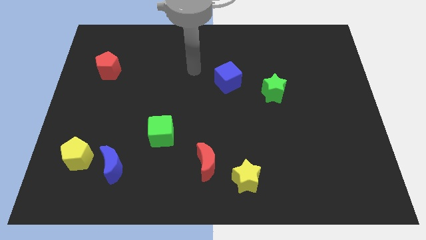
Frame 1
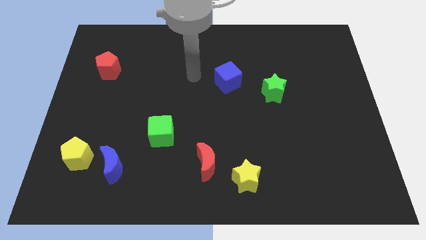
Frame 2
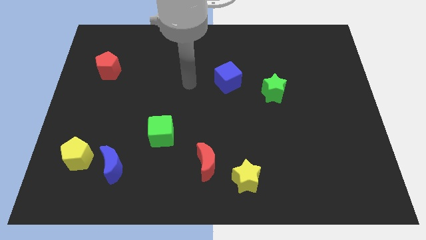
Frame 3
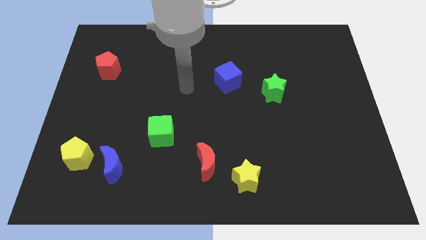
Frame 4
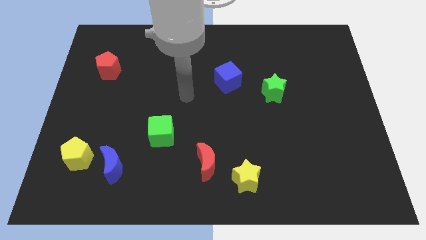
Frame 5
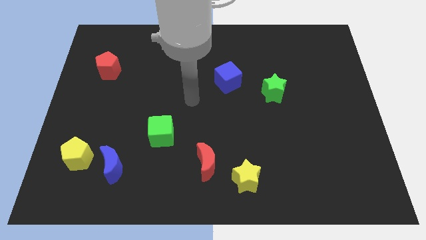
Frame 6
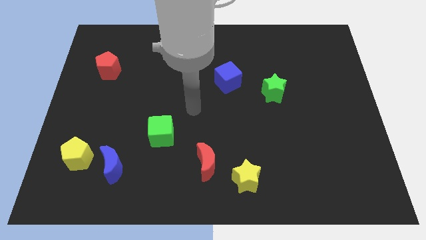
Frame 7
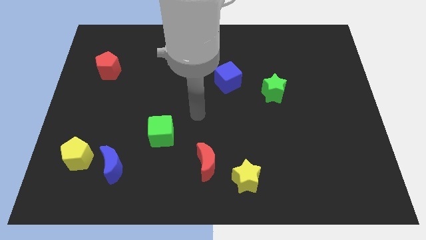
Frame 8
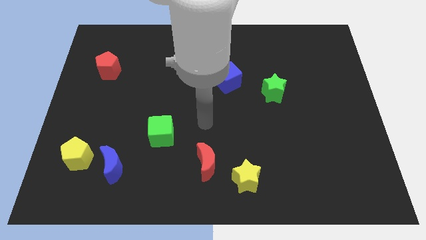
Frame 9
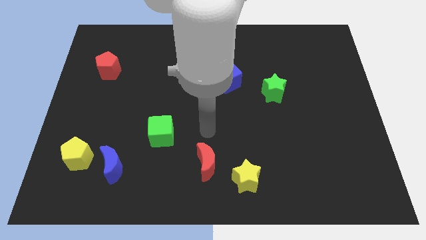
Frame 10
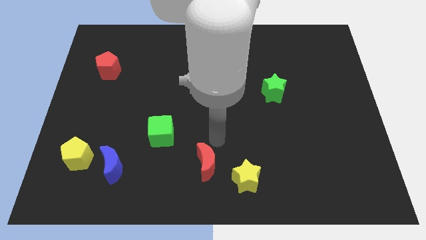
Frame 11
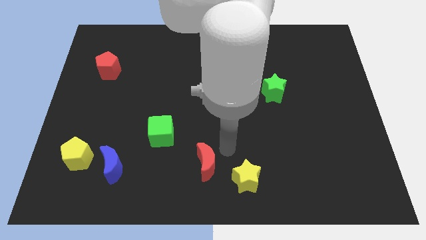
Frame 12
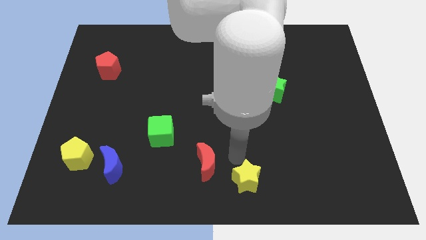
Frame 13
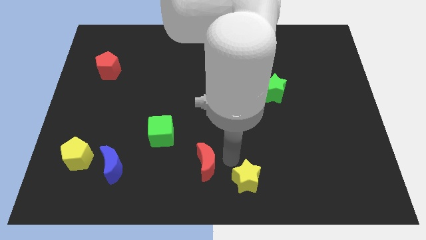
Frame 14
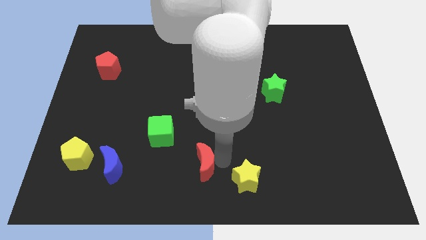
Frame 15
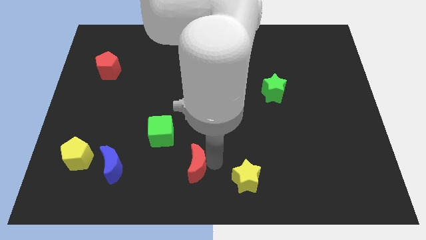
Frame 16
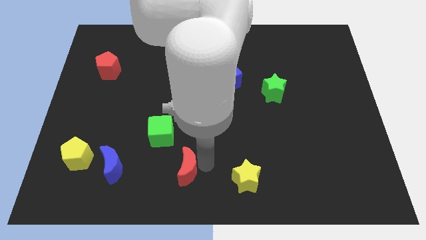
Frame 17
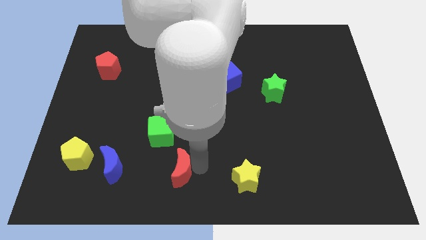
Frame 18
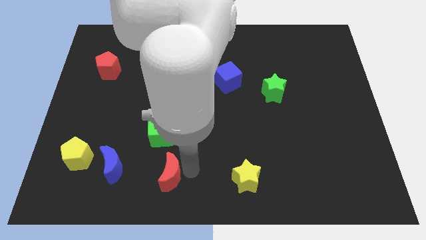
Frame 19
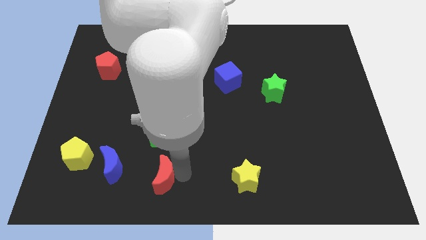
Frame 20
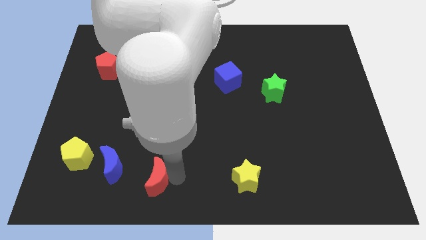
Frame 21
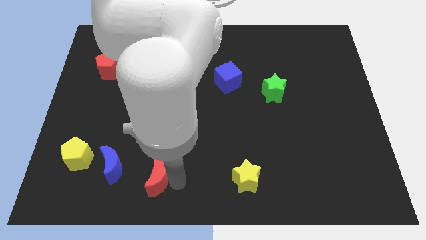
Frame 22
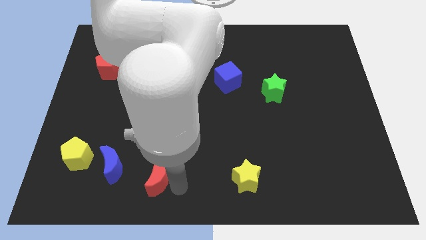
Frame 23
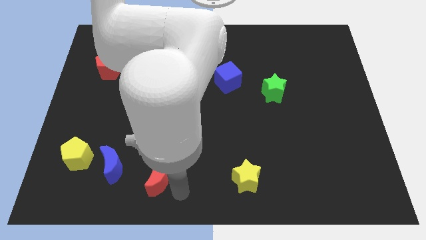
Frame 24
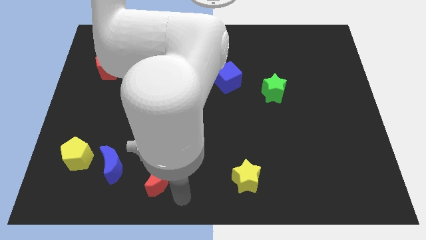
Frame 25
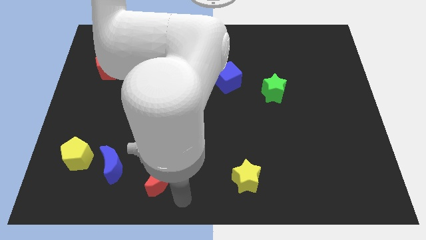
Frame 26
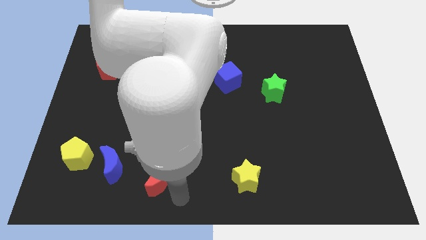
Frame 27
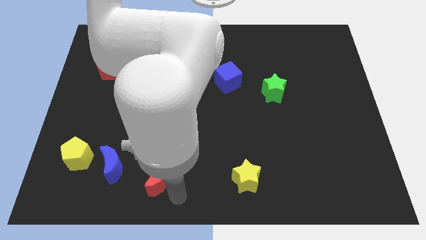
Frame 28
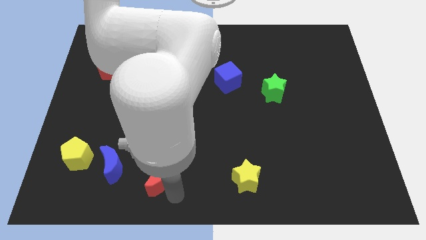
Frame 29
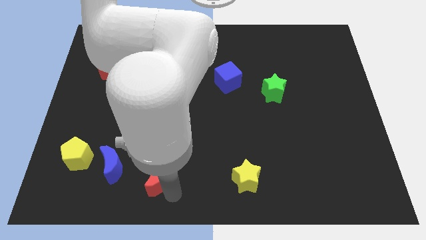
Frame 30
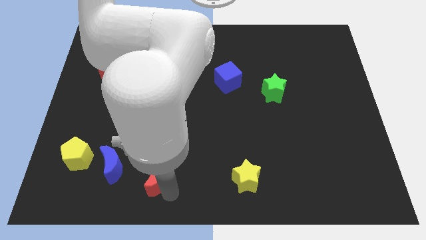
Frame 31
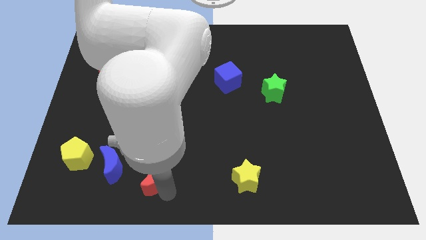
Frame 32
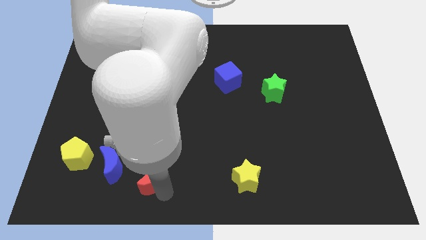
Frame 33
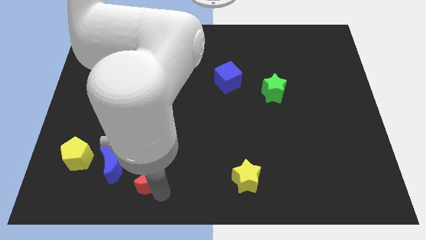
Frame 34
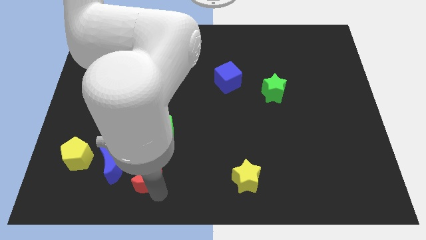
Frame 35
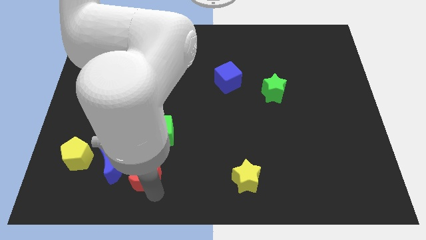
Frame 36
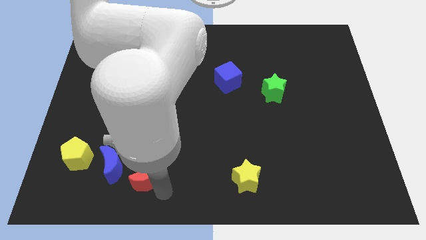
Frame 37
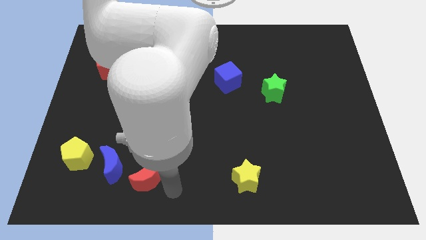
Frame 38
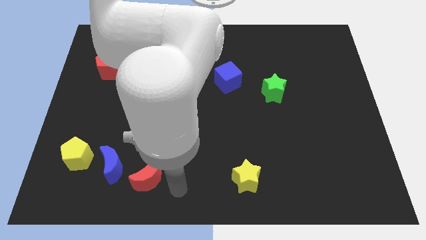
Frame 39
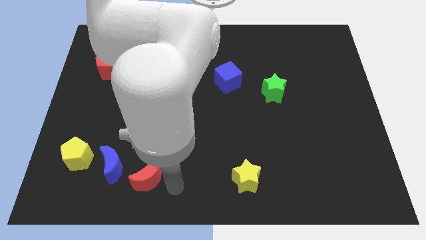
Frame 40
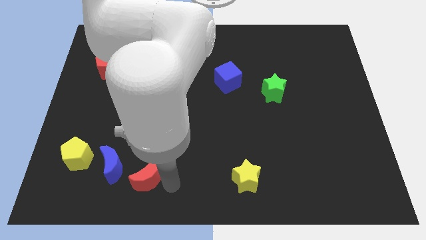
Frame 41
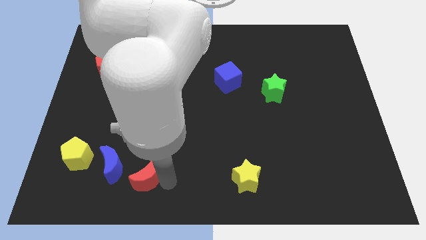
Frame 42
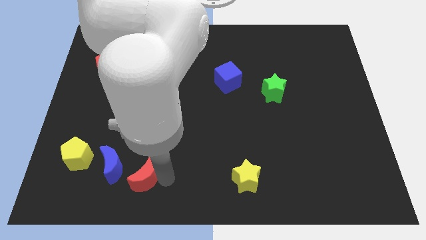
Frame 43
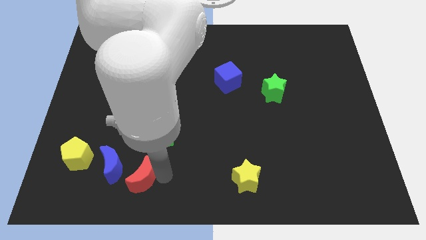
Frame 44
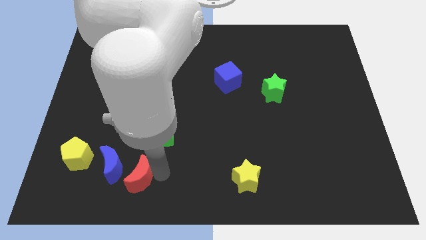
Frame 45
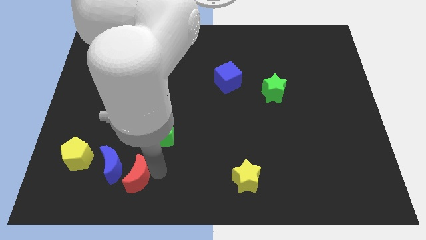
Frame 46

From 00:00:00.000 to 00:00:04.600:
put the red moon to the blue moon

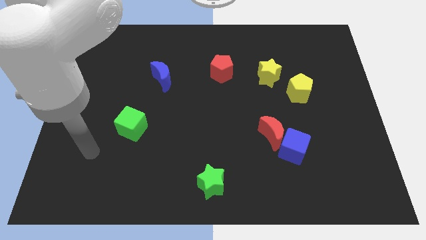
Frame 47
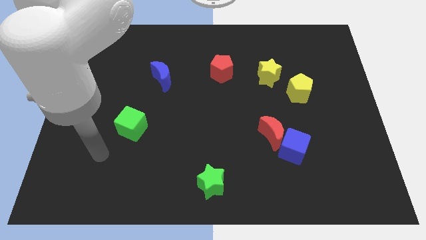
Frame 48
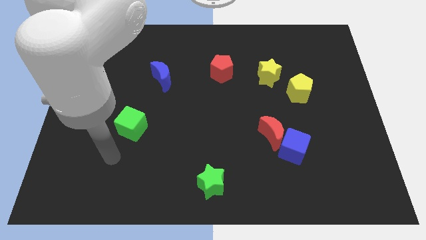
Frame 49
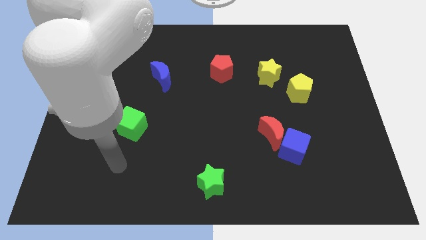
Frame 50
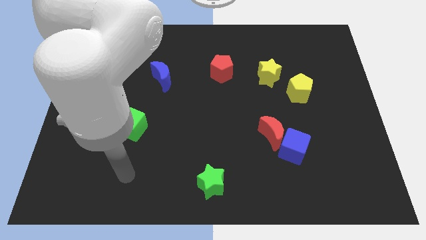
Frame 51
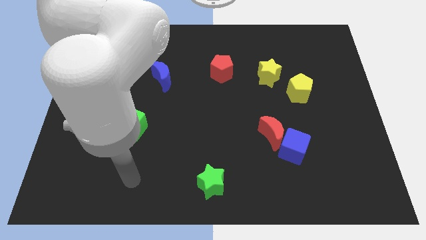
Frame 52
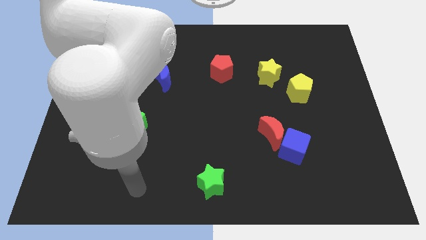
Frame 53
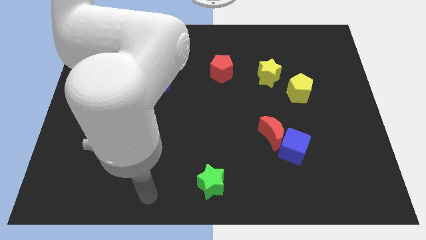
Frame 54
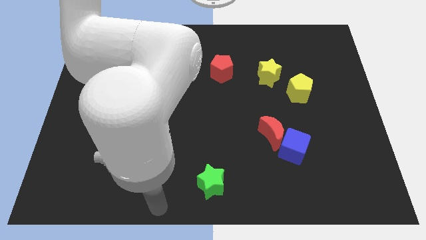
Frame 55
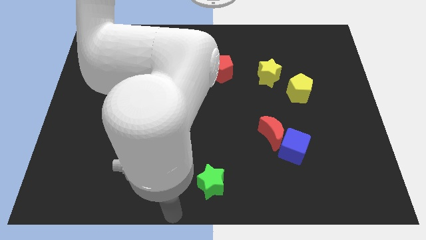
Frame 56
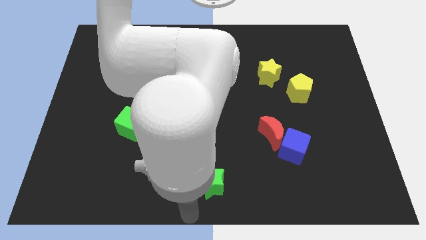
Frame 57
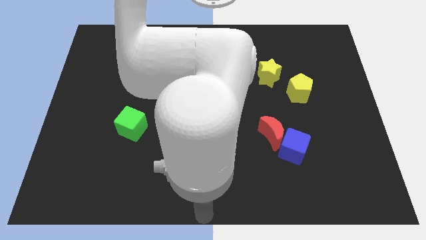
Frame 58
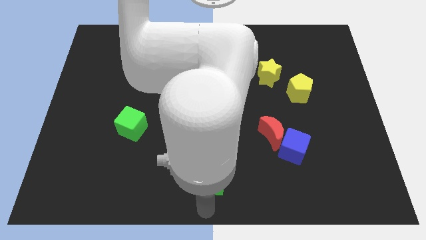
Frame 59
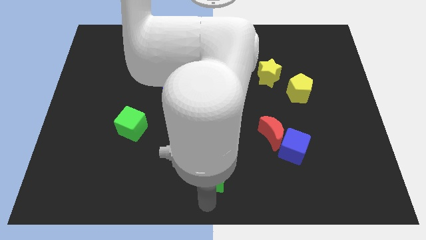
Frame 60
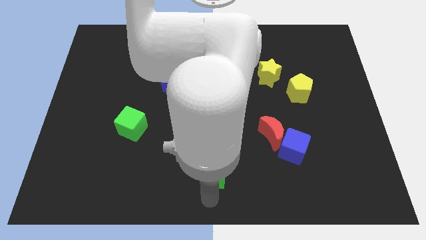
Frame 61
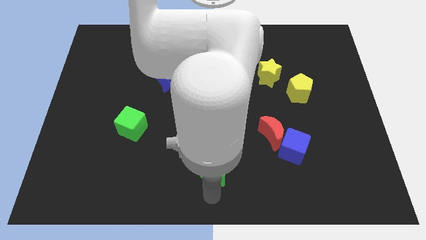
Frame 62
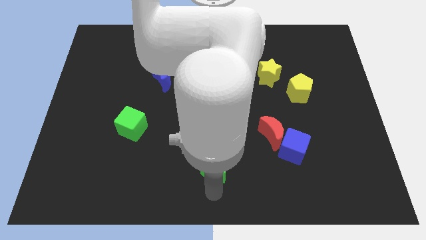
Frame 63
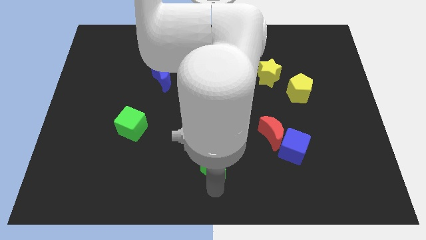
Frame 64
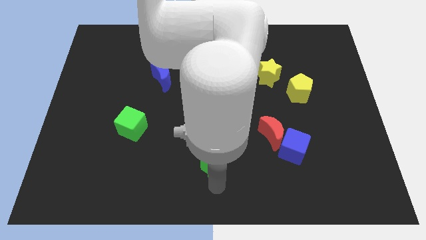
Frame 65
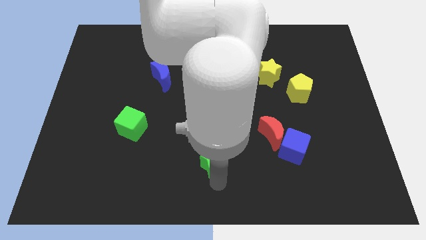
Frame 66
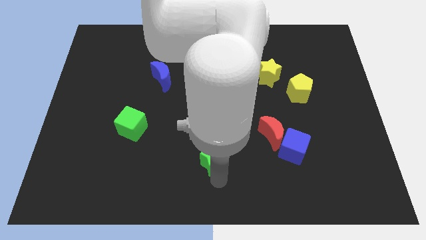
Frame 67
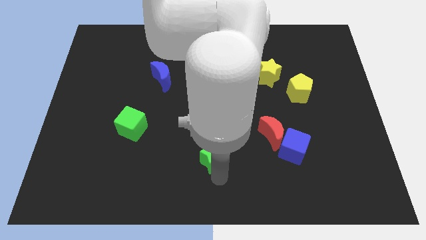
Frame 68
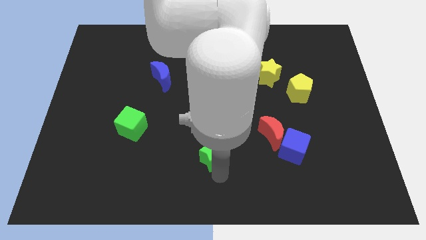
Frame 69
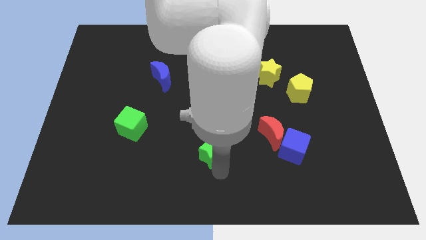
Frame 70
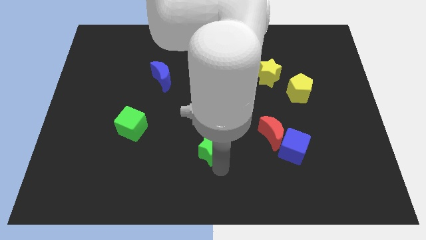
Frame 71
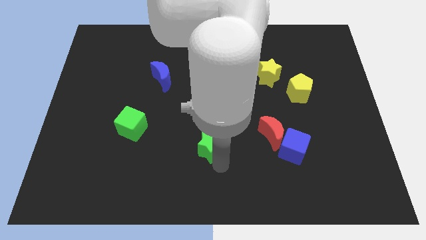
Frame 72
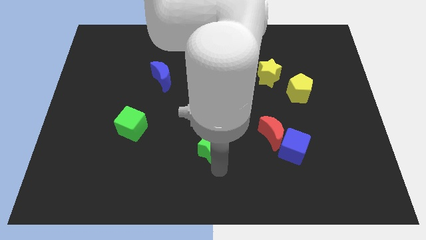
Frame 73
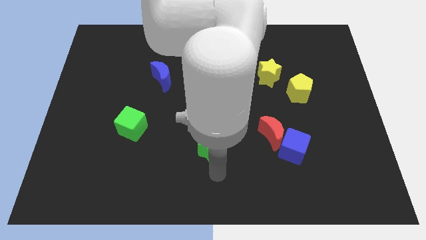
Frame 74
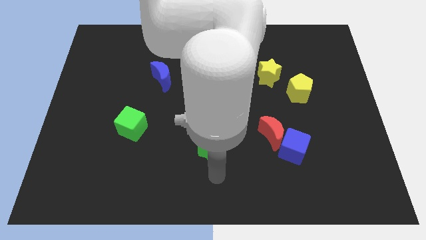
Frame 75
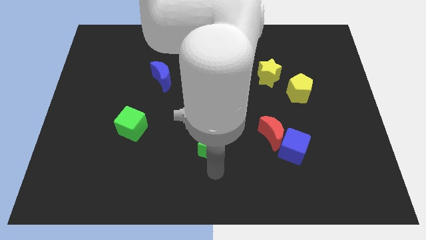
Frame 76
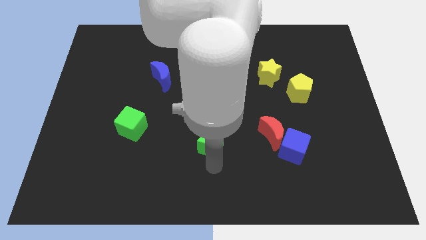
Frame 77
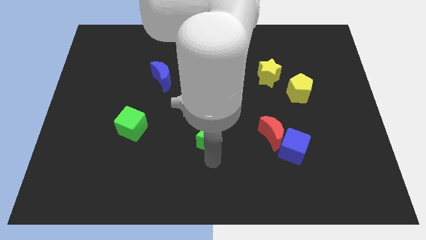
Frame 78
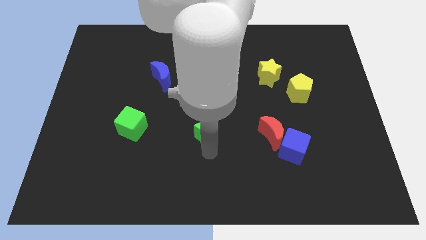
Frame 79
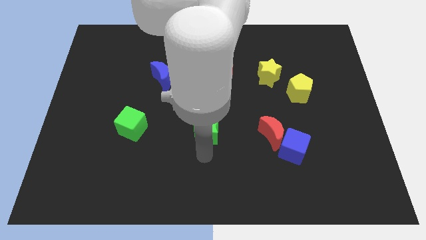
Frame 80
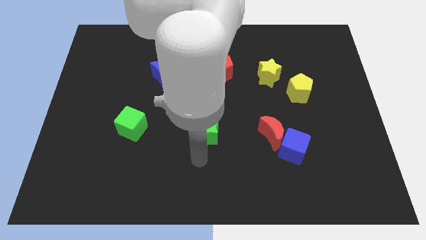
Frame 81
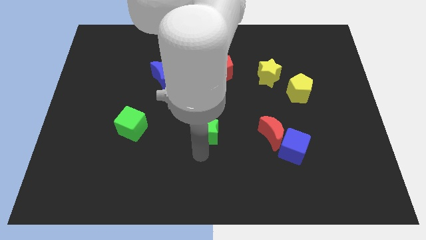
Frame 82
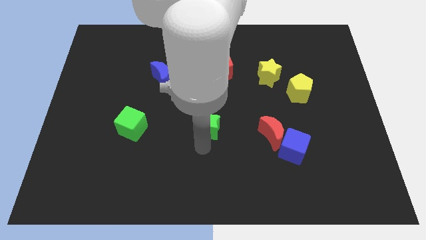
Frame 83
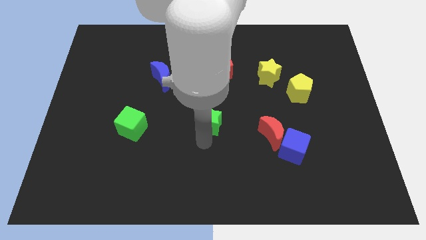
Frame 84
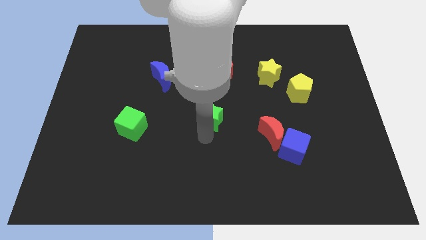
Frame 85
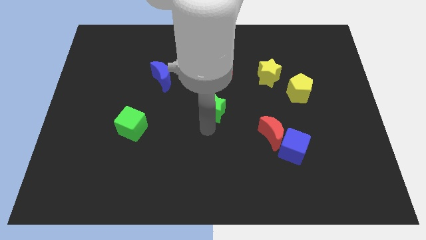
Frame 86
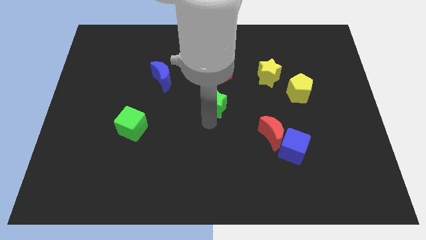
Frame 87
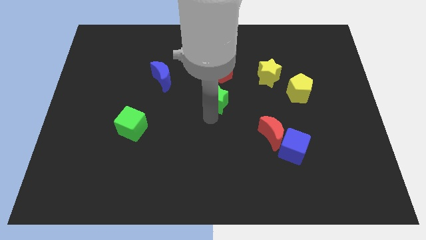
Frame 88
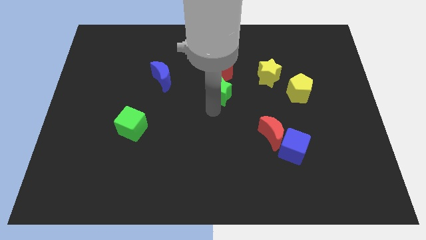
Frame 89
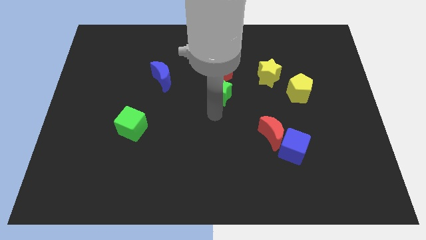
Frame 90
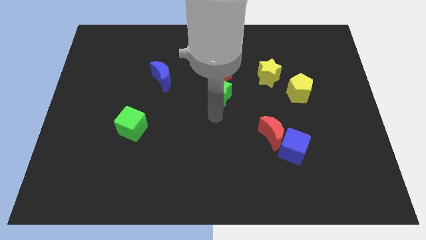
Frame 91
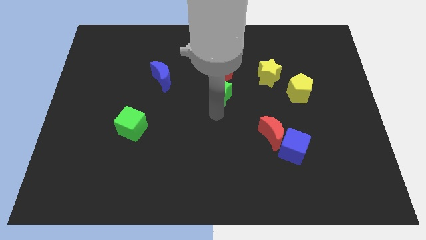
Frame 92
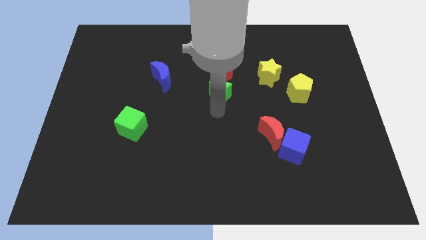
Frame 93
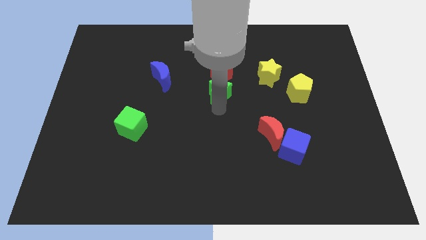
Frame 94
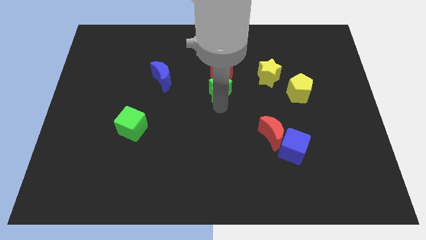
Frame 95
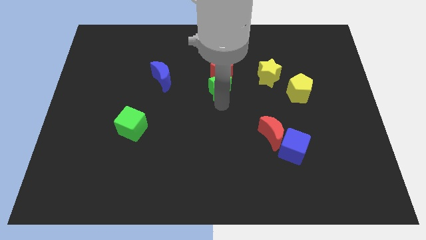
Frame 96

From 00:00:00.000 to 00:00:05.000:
slide the green star to the red pentagon
